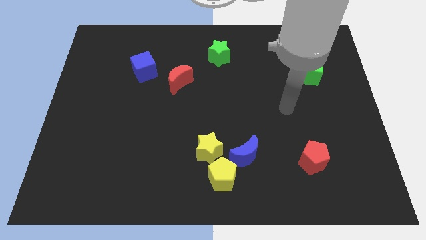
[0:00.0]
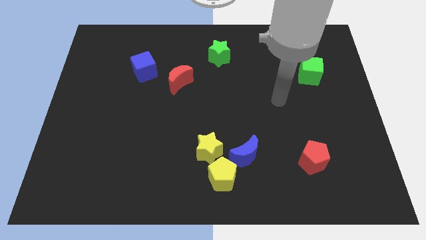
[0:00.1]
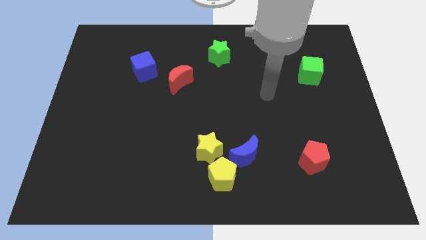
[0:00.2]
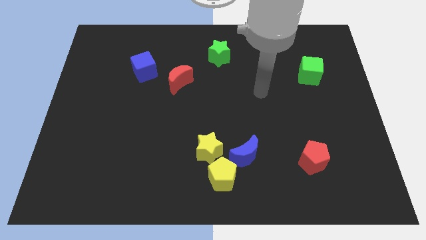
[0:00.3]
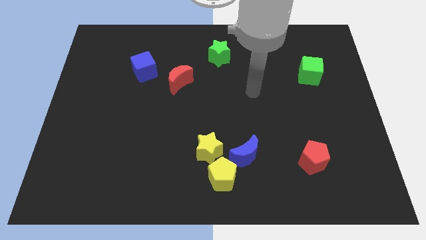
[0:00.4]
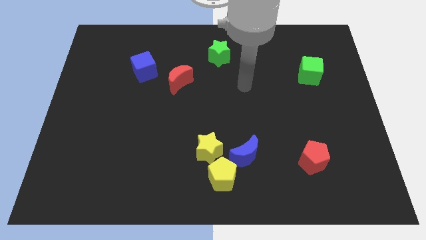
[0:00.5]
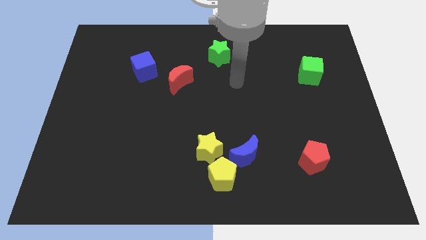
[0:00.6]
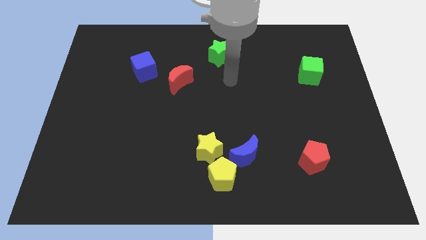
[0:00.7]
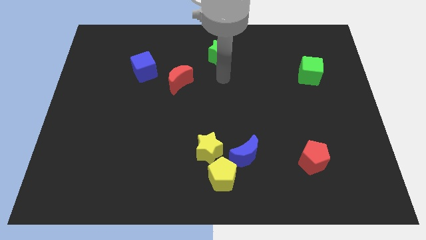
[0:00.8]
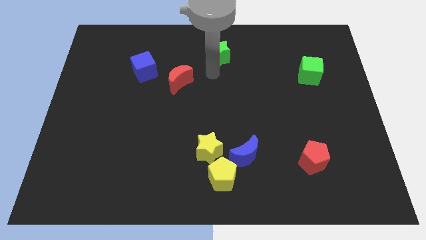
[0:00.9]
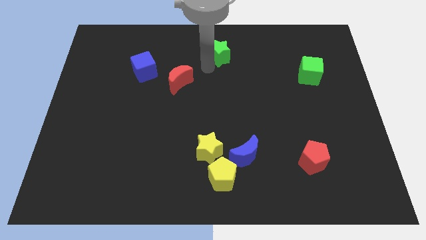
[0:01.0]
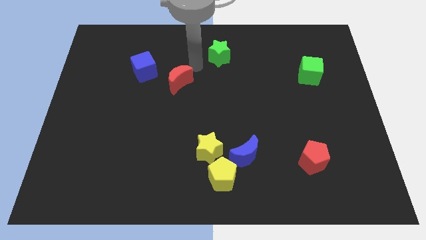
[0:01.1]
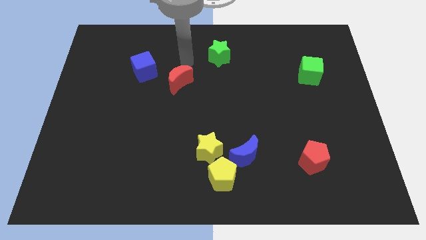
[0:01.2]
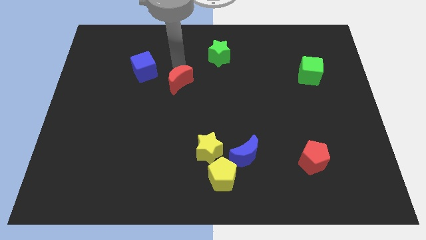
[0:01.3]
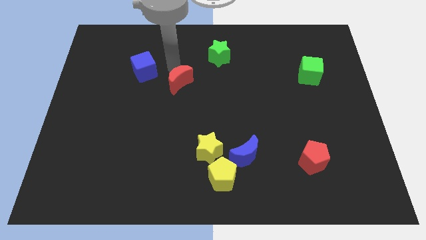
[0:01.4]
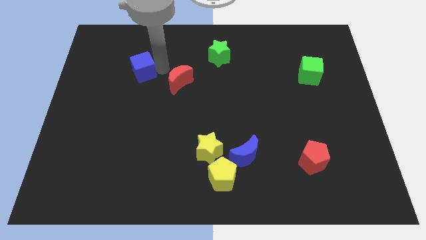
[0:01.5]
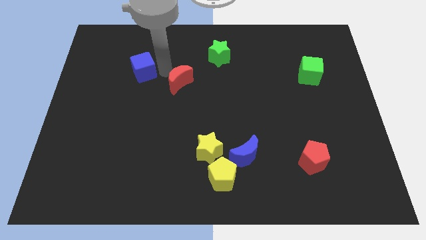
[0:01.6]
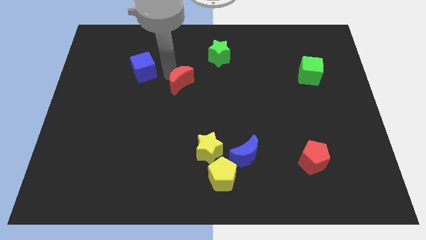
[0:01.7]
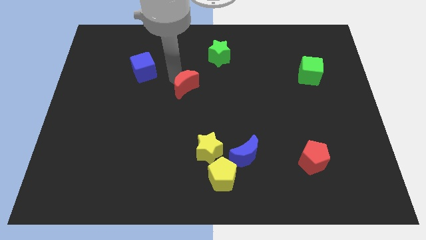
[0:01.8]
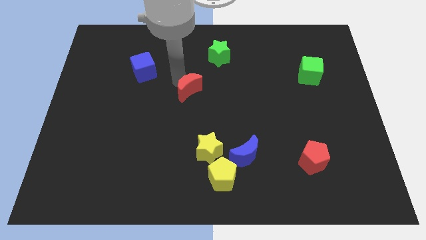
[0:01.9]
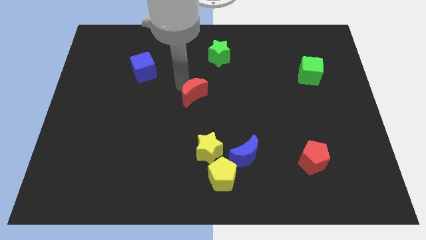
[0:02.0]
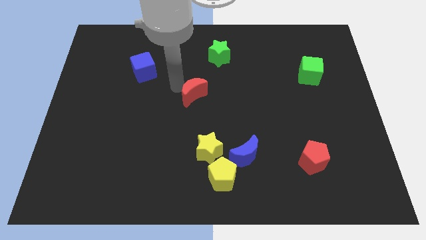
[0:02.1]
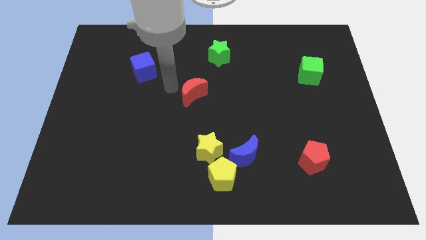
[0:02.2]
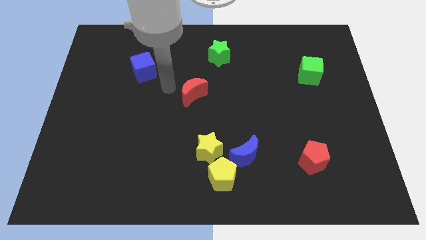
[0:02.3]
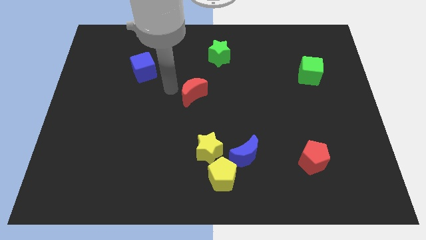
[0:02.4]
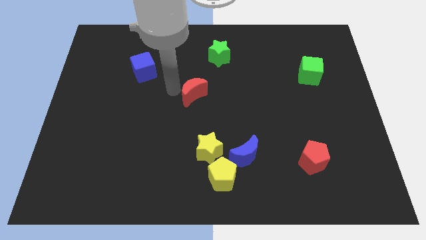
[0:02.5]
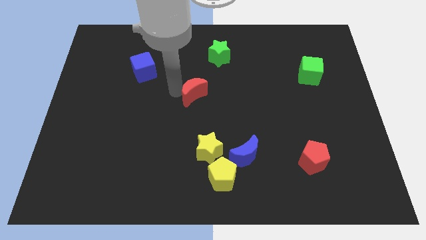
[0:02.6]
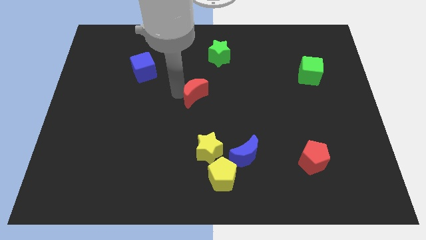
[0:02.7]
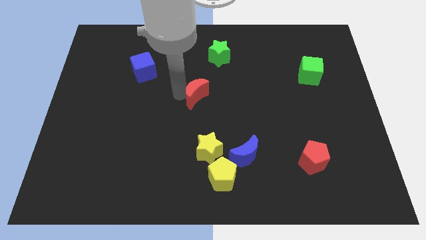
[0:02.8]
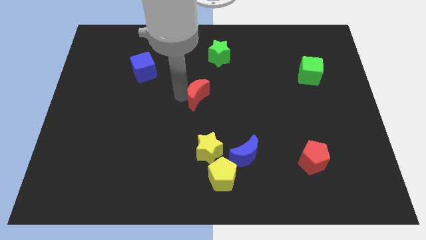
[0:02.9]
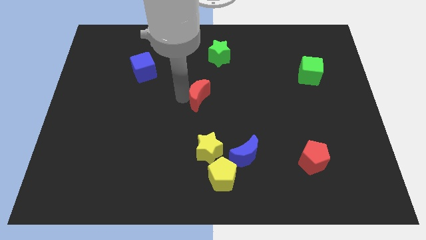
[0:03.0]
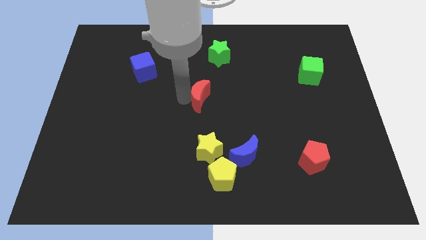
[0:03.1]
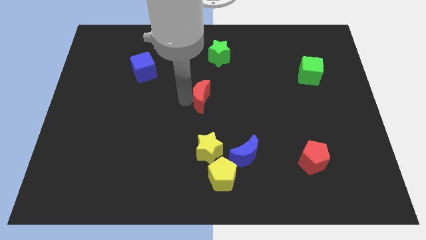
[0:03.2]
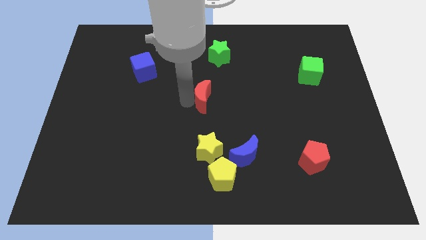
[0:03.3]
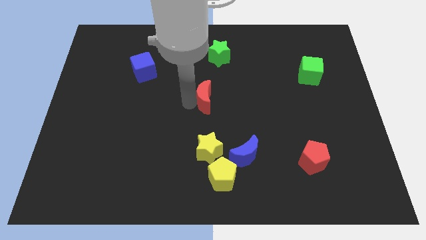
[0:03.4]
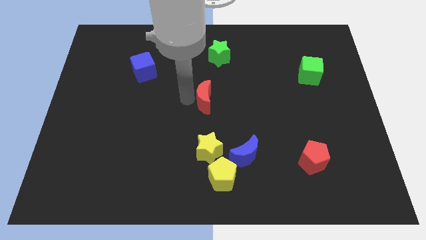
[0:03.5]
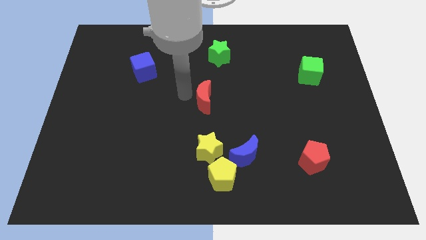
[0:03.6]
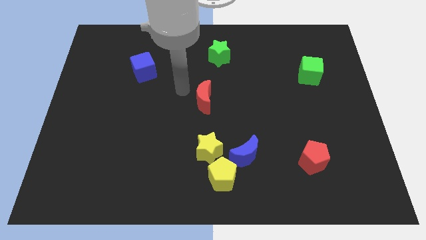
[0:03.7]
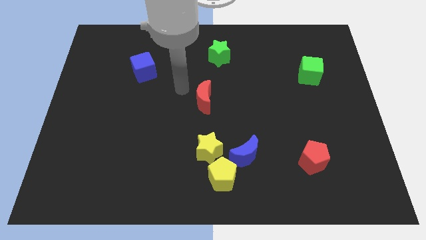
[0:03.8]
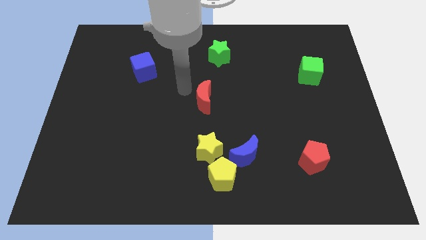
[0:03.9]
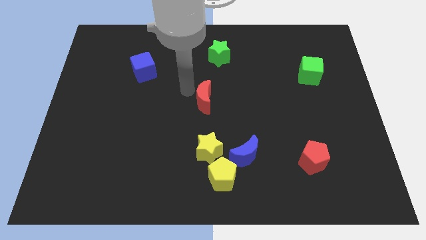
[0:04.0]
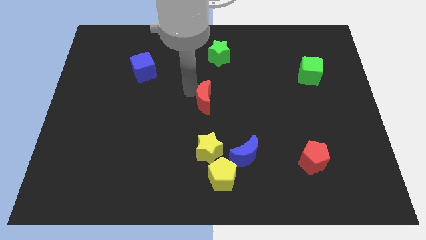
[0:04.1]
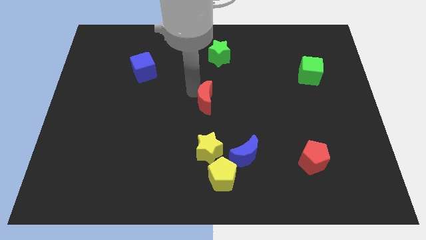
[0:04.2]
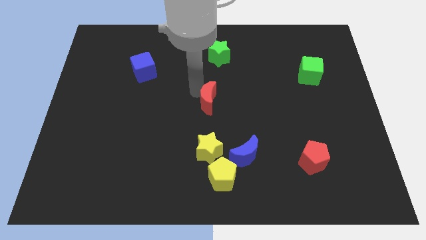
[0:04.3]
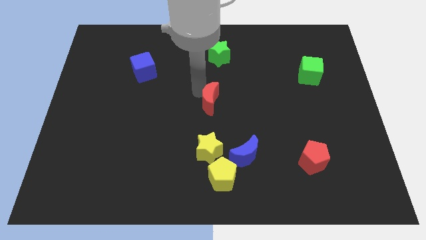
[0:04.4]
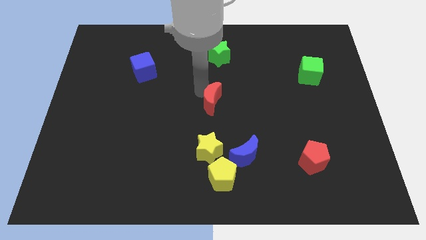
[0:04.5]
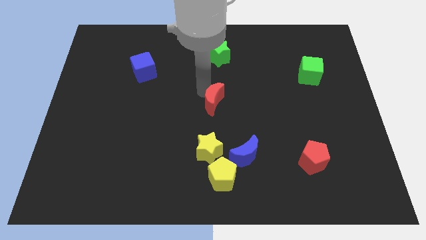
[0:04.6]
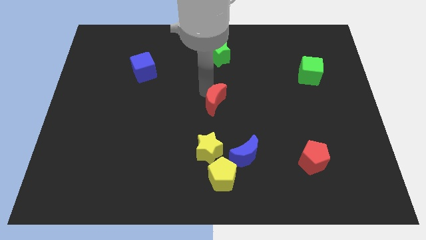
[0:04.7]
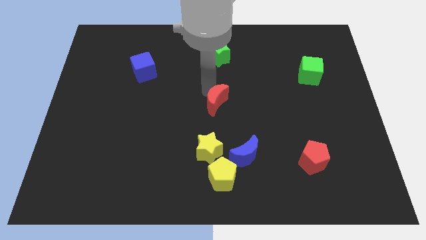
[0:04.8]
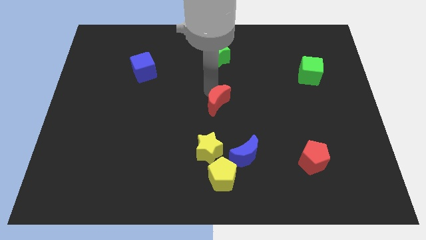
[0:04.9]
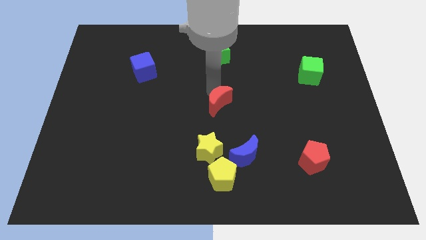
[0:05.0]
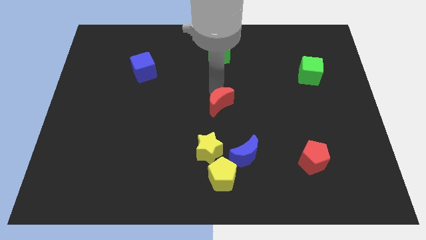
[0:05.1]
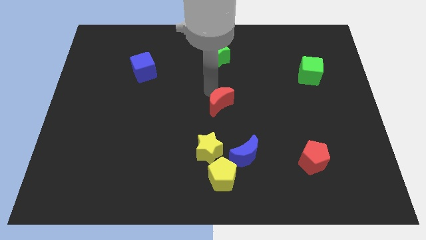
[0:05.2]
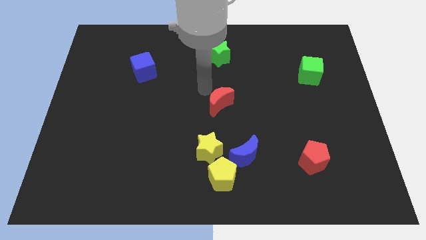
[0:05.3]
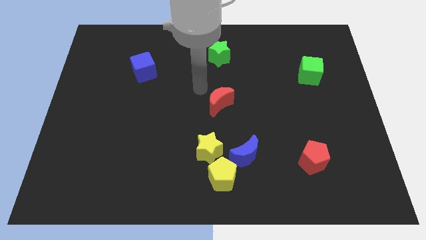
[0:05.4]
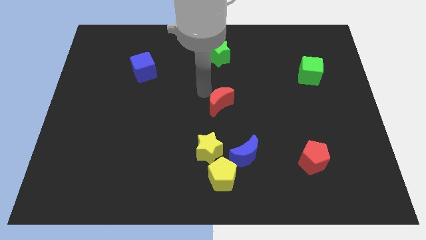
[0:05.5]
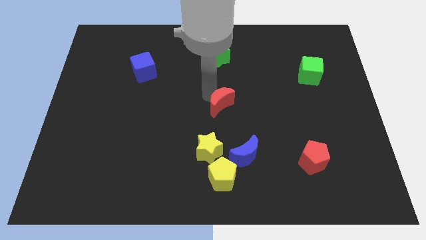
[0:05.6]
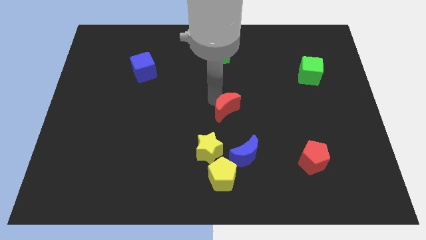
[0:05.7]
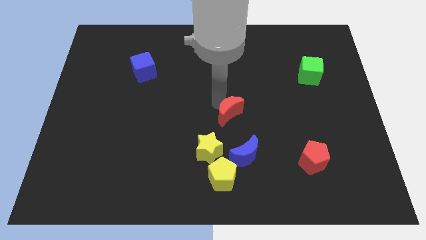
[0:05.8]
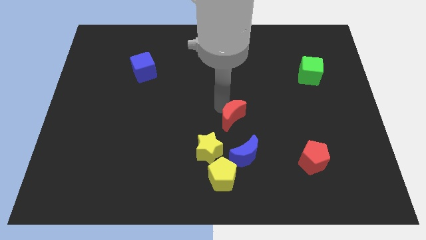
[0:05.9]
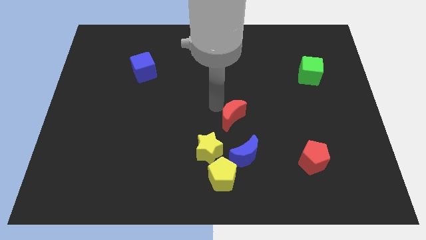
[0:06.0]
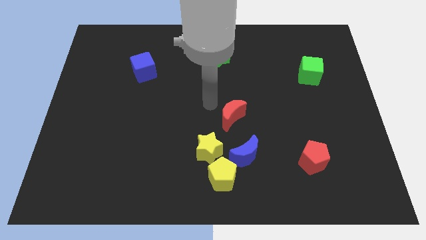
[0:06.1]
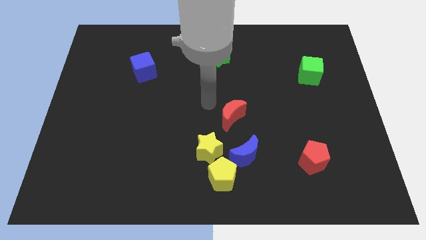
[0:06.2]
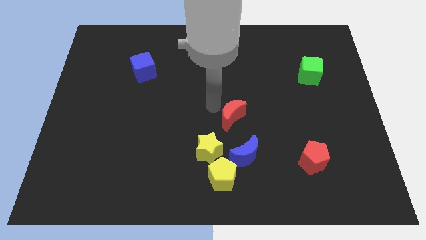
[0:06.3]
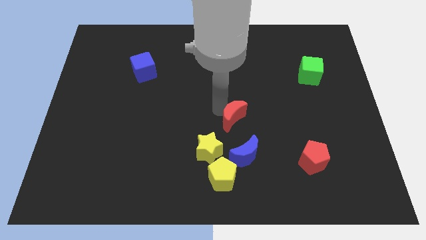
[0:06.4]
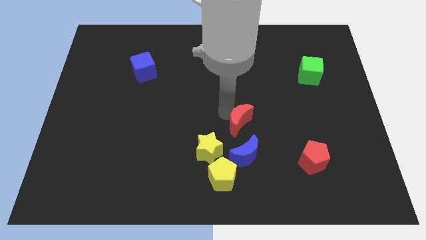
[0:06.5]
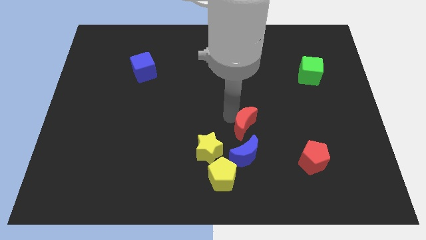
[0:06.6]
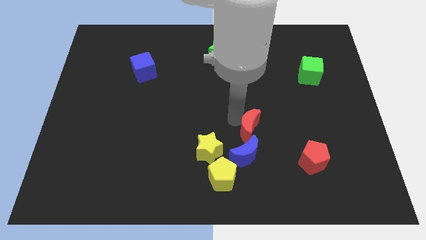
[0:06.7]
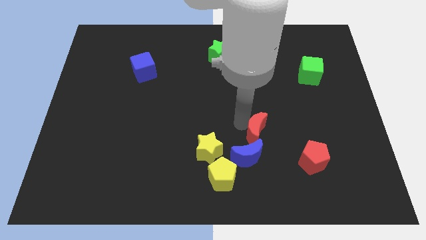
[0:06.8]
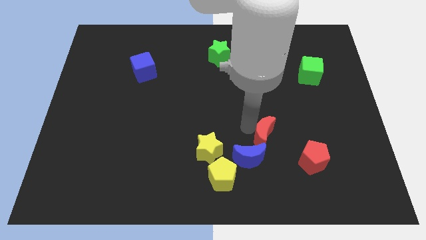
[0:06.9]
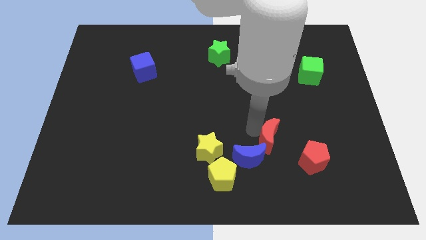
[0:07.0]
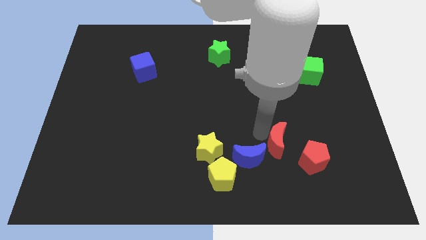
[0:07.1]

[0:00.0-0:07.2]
put the red moon to the left of the red pentagon
